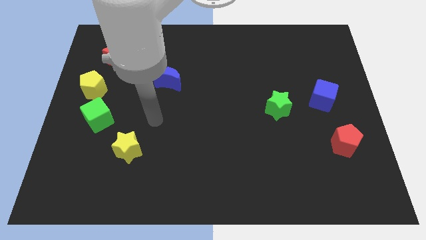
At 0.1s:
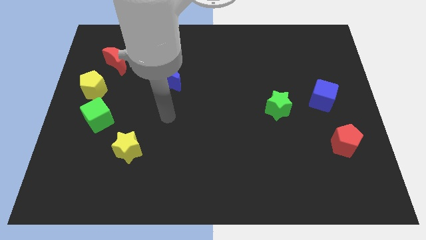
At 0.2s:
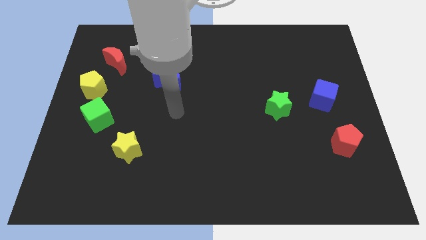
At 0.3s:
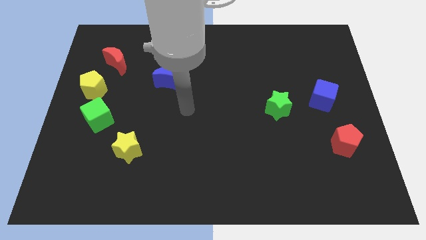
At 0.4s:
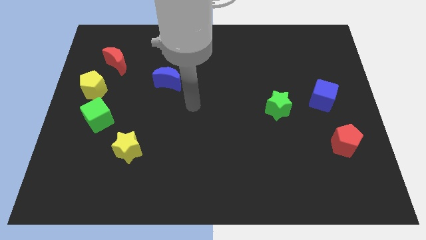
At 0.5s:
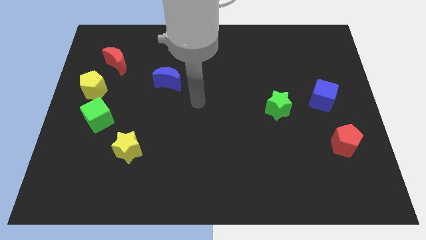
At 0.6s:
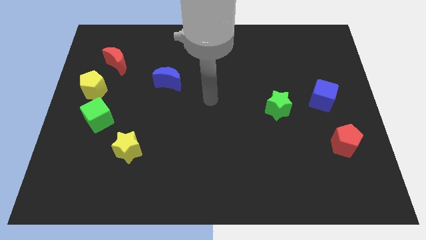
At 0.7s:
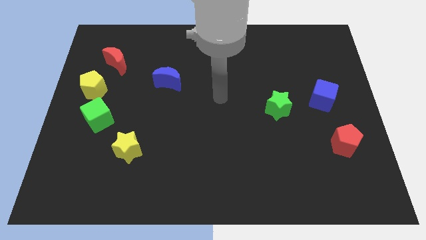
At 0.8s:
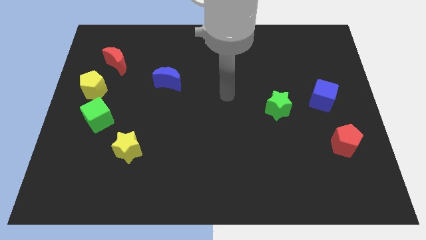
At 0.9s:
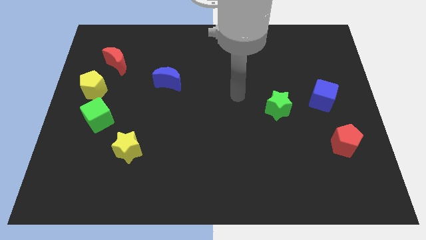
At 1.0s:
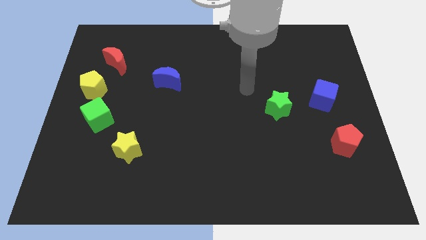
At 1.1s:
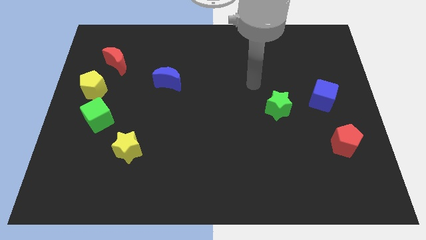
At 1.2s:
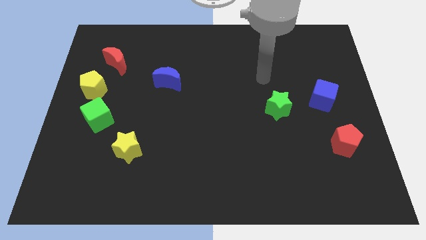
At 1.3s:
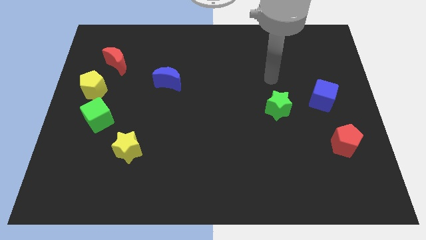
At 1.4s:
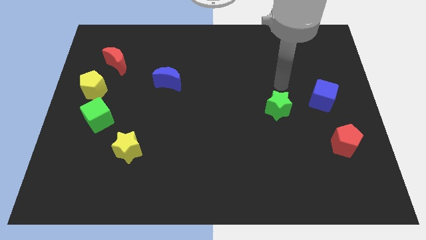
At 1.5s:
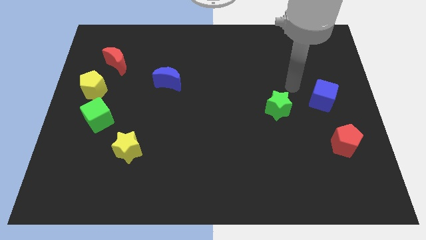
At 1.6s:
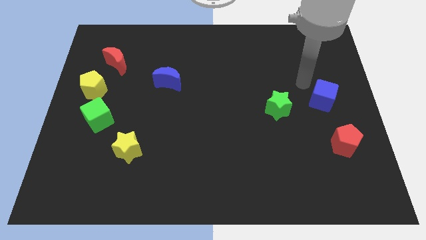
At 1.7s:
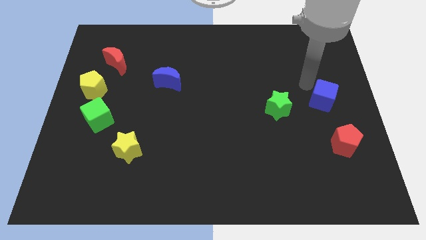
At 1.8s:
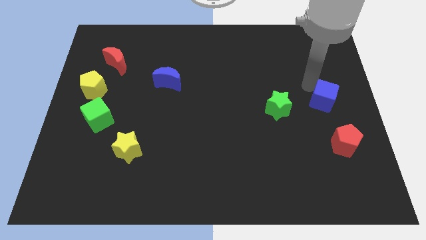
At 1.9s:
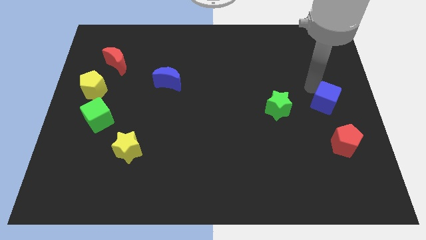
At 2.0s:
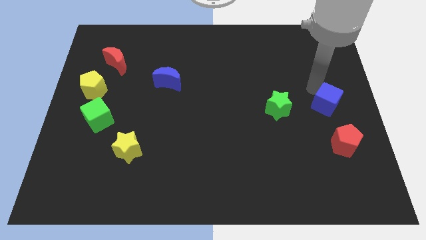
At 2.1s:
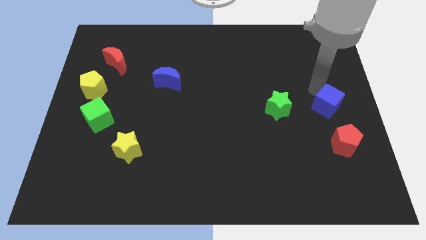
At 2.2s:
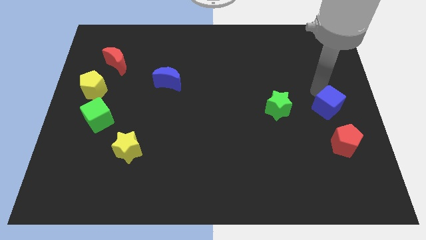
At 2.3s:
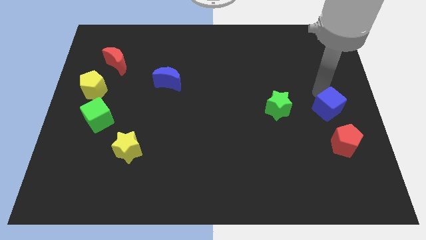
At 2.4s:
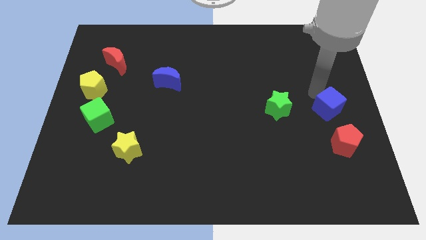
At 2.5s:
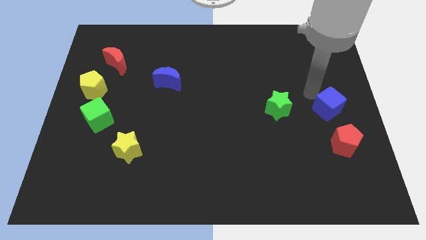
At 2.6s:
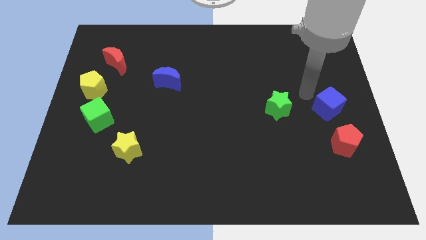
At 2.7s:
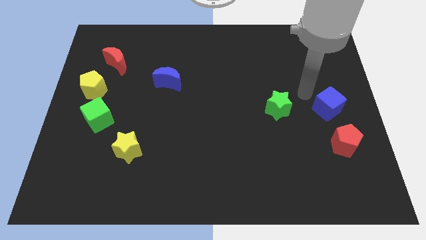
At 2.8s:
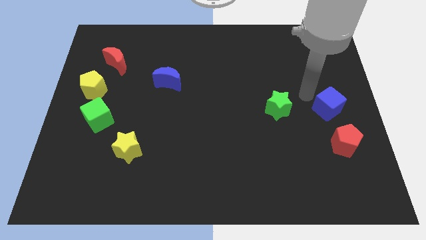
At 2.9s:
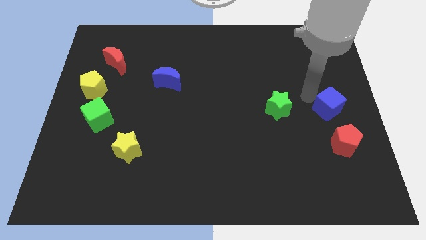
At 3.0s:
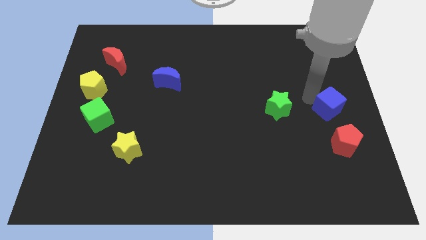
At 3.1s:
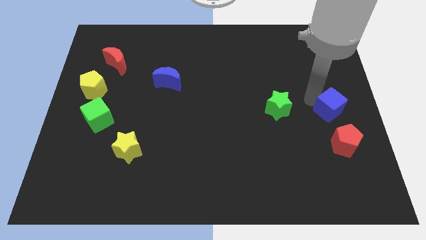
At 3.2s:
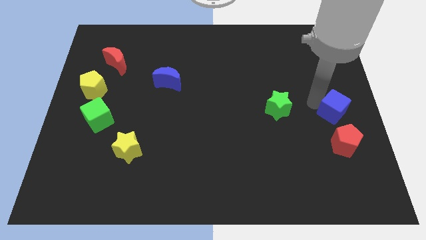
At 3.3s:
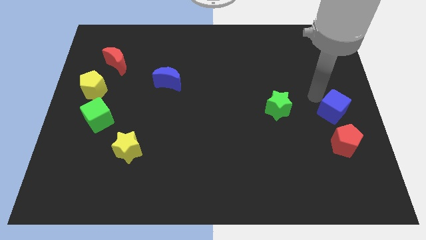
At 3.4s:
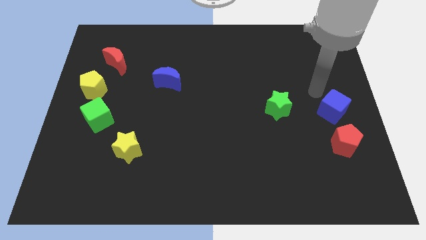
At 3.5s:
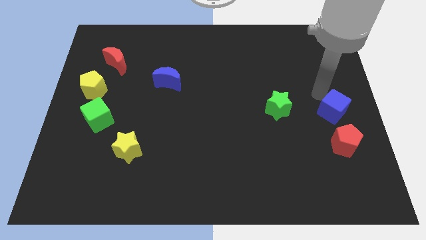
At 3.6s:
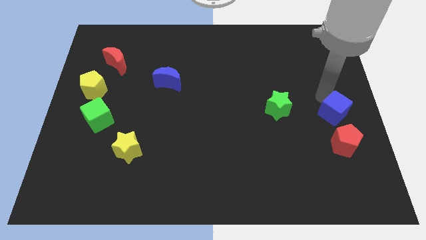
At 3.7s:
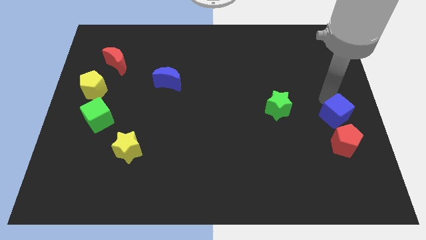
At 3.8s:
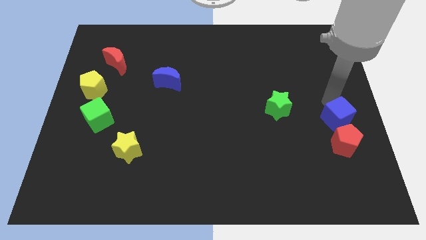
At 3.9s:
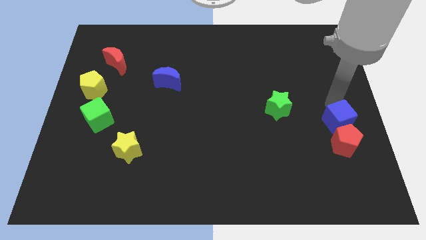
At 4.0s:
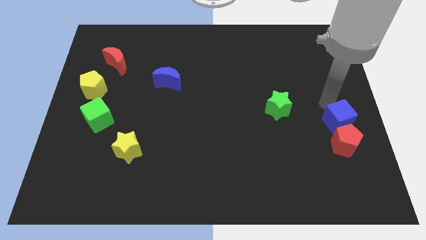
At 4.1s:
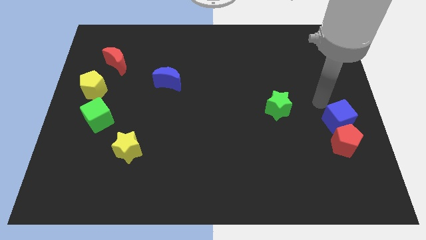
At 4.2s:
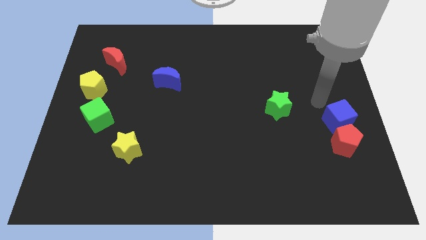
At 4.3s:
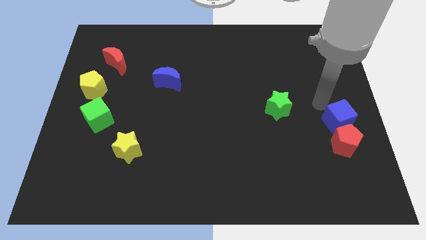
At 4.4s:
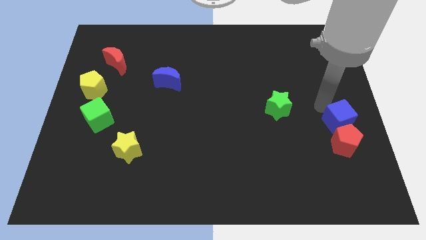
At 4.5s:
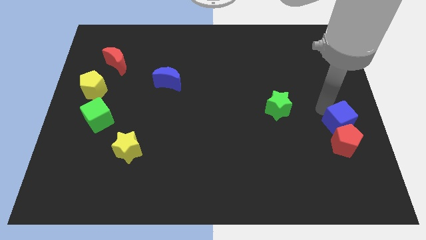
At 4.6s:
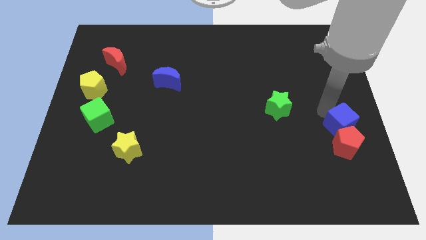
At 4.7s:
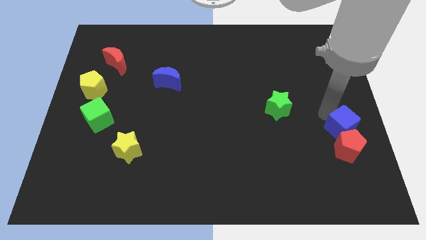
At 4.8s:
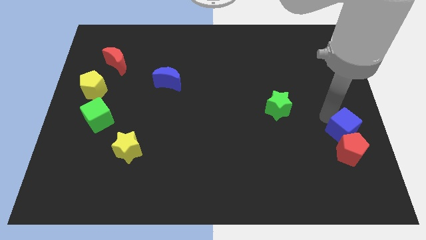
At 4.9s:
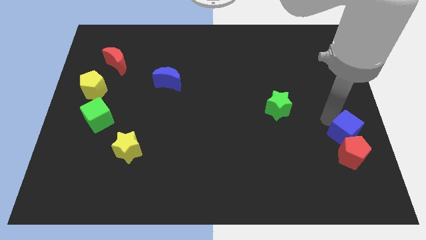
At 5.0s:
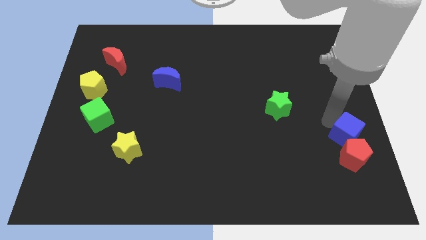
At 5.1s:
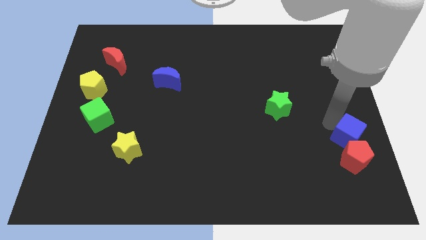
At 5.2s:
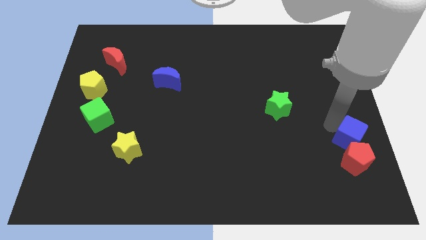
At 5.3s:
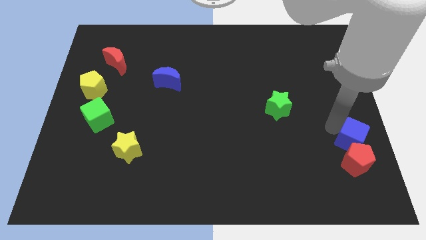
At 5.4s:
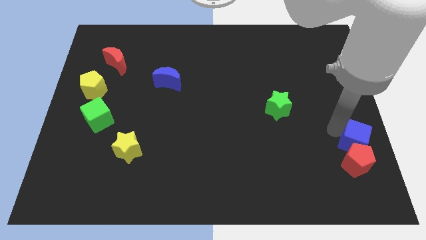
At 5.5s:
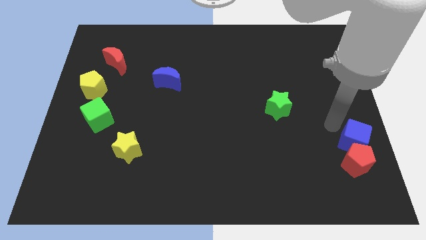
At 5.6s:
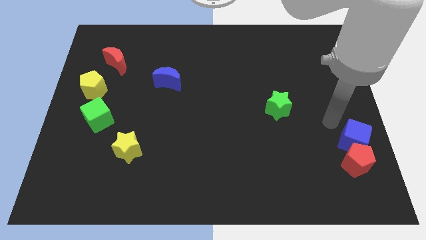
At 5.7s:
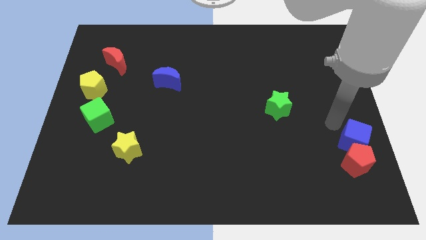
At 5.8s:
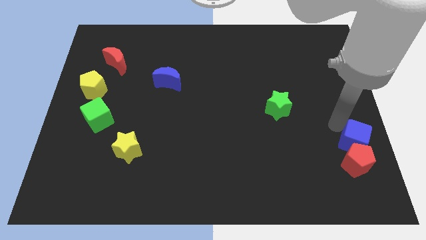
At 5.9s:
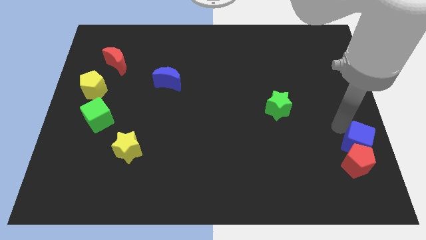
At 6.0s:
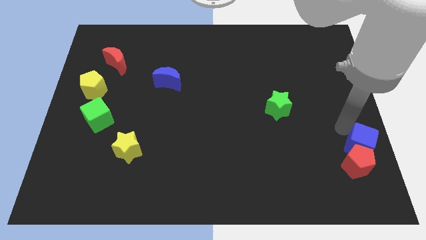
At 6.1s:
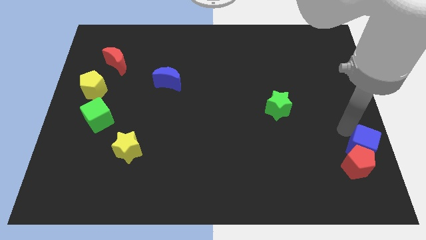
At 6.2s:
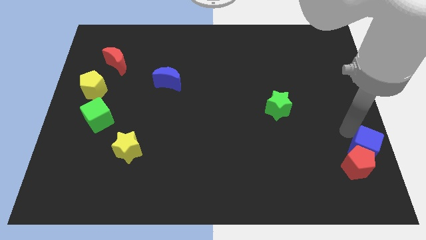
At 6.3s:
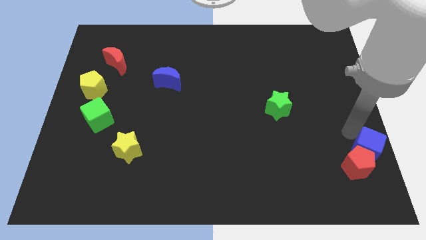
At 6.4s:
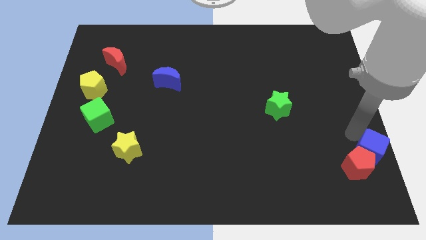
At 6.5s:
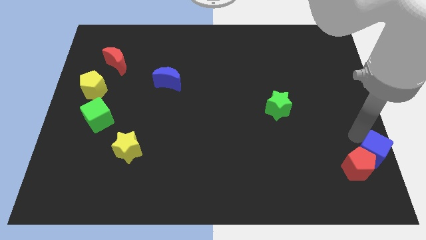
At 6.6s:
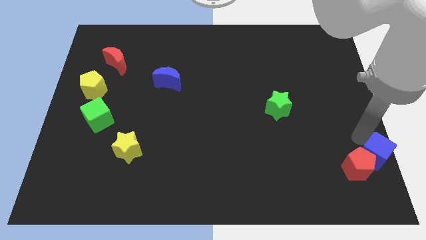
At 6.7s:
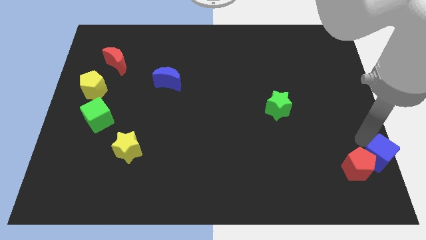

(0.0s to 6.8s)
move the blue cube to the bottom right

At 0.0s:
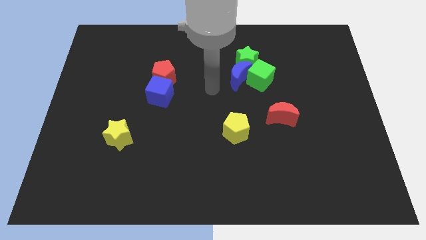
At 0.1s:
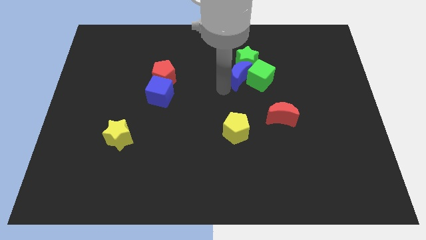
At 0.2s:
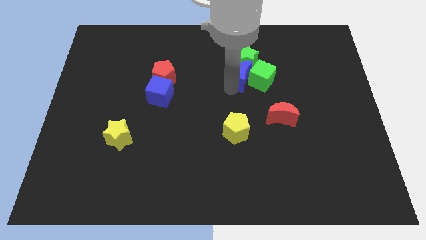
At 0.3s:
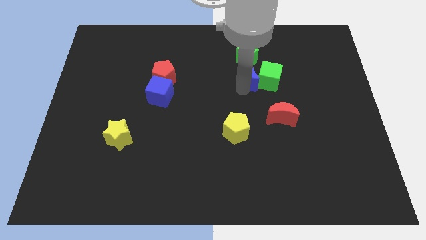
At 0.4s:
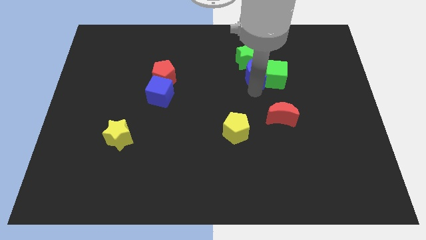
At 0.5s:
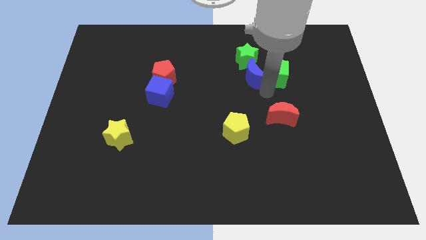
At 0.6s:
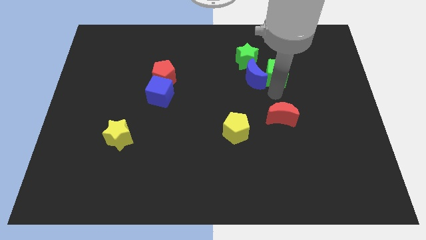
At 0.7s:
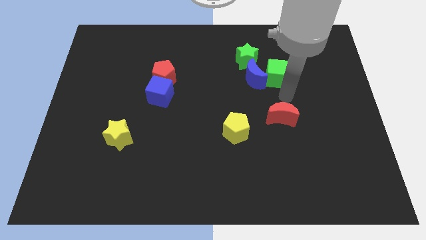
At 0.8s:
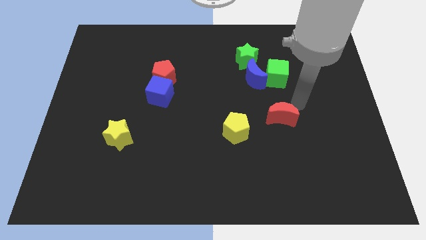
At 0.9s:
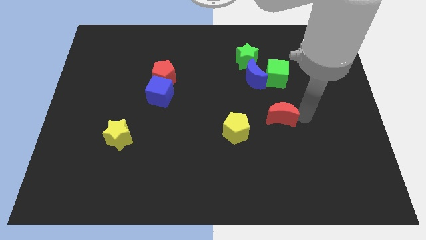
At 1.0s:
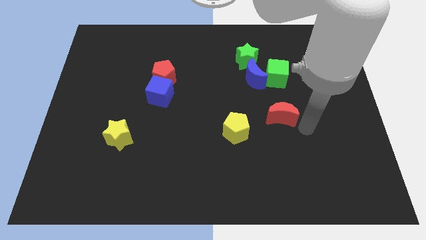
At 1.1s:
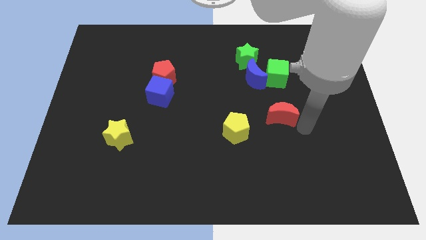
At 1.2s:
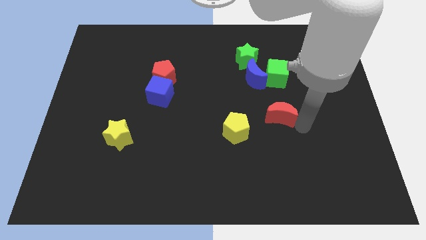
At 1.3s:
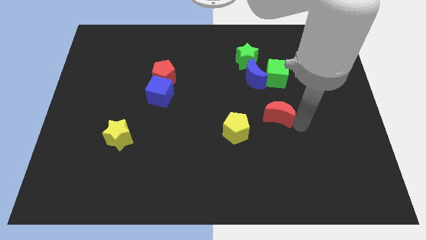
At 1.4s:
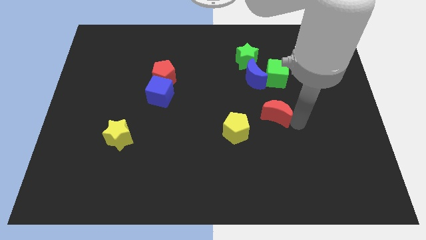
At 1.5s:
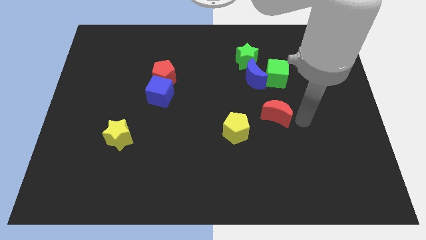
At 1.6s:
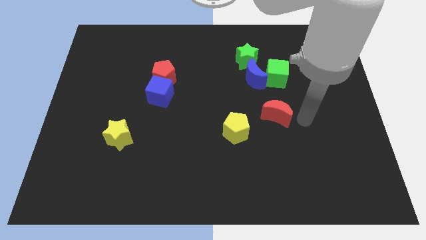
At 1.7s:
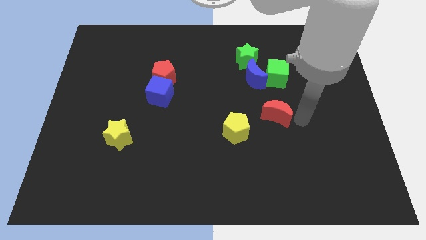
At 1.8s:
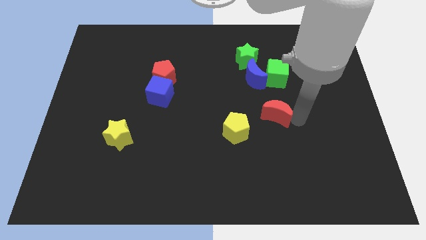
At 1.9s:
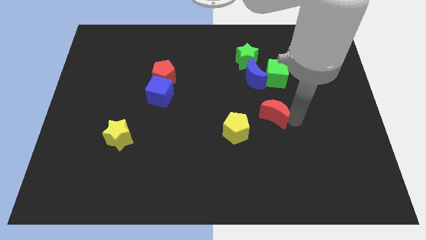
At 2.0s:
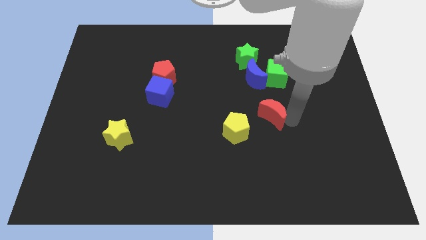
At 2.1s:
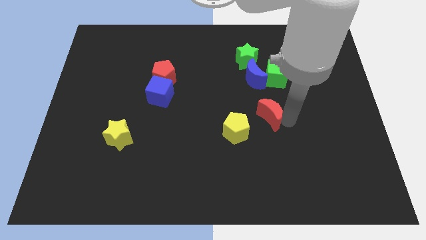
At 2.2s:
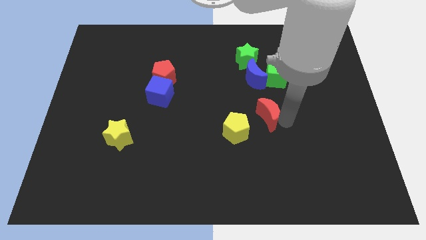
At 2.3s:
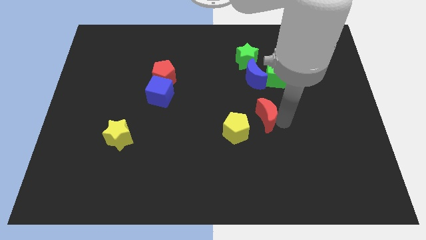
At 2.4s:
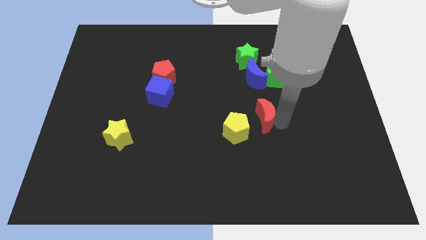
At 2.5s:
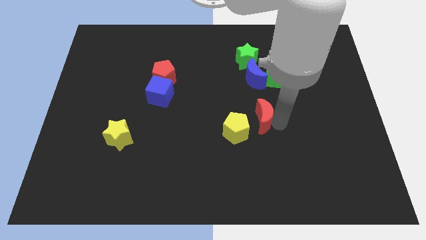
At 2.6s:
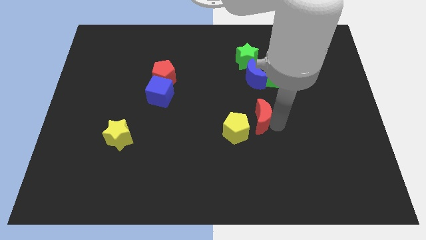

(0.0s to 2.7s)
push the red moon to the middle
